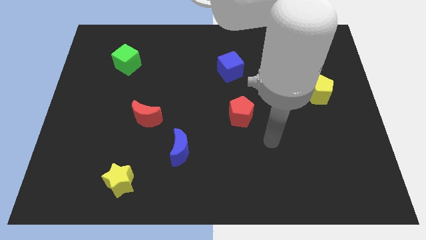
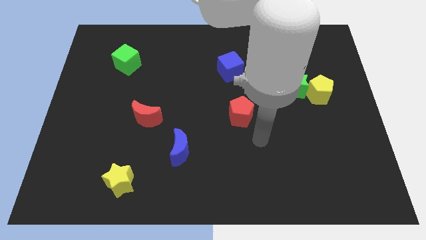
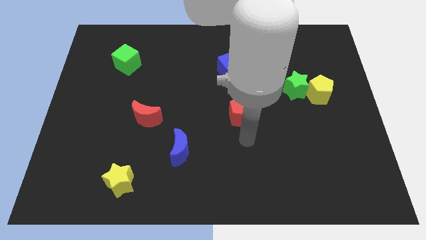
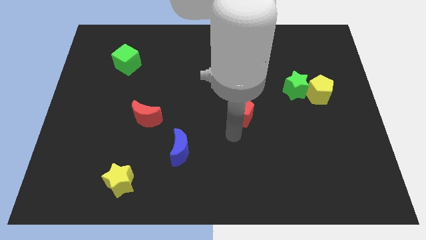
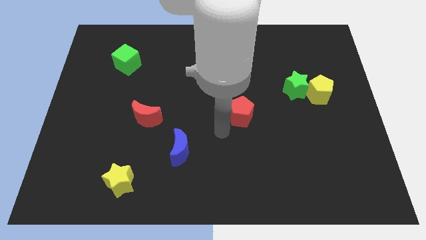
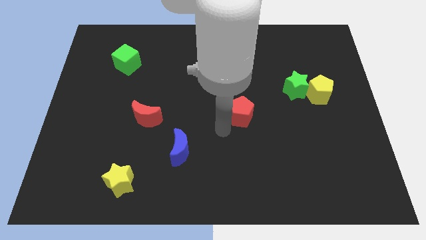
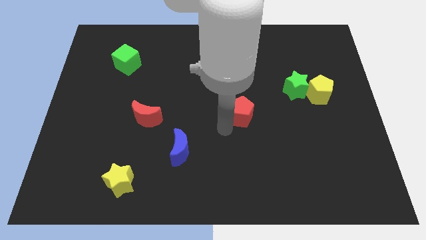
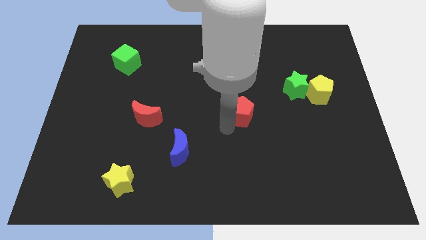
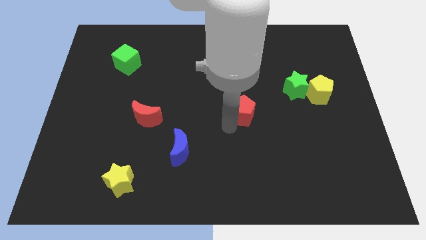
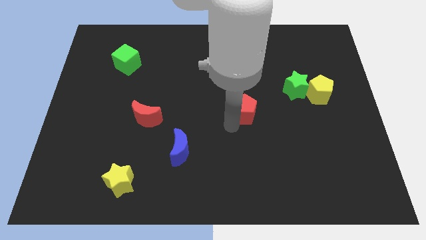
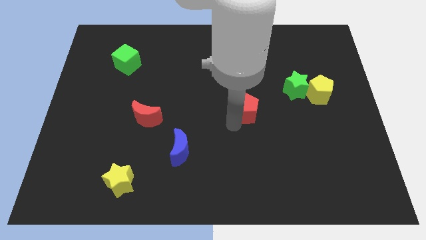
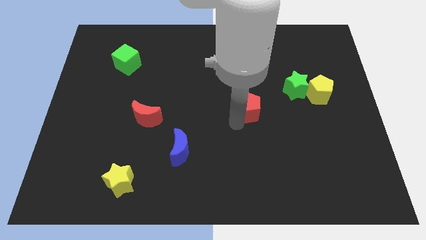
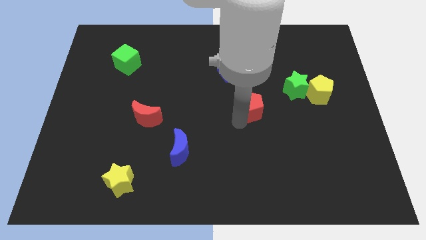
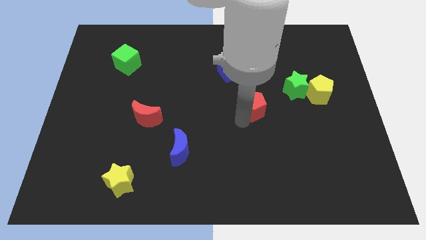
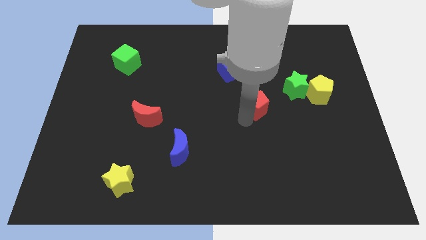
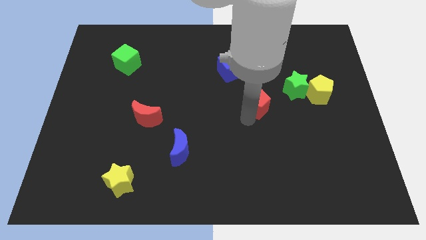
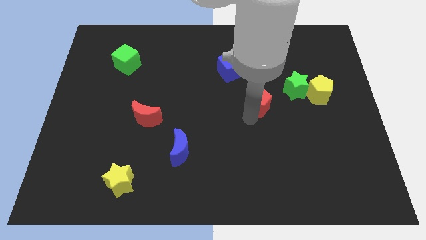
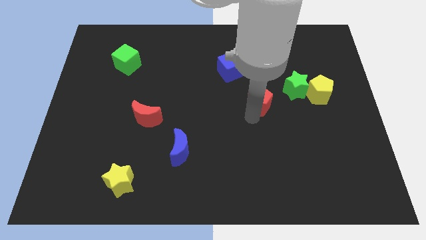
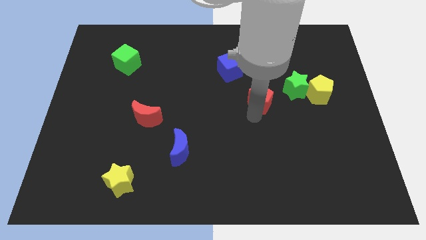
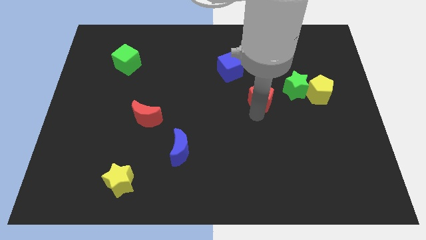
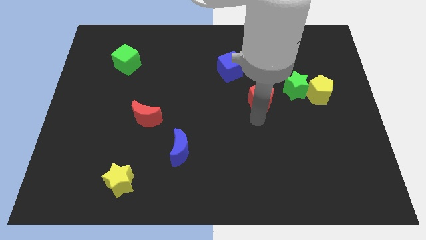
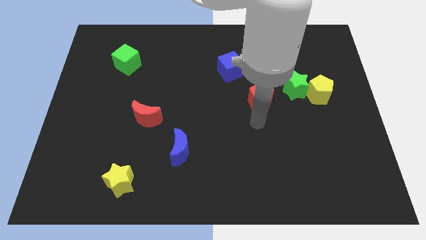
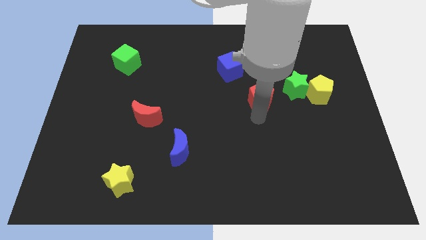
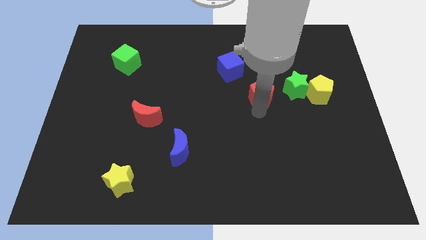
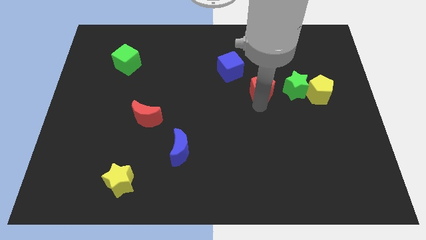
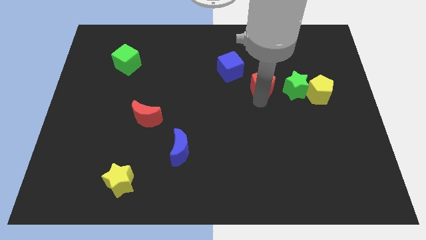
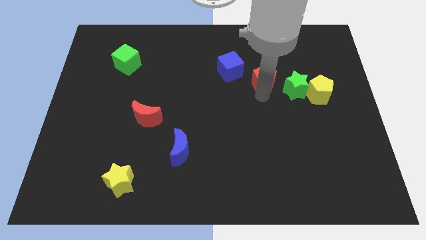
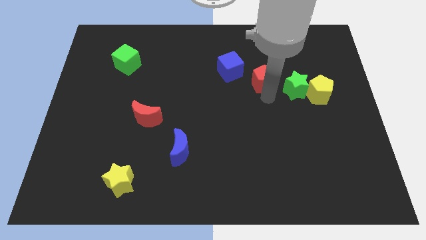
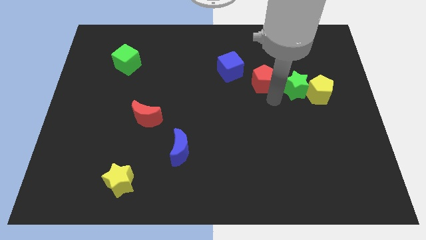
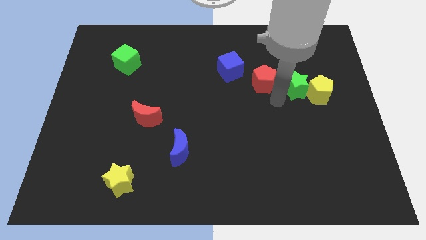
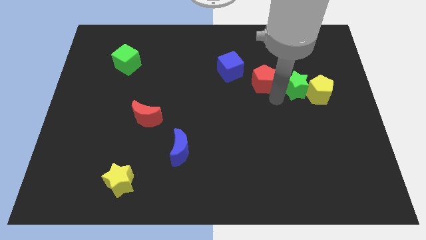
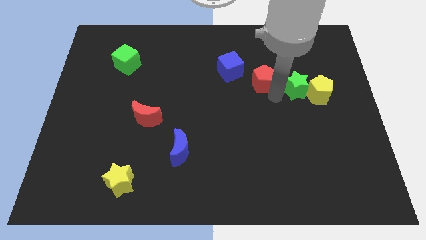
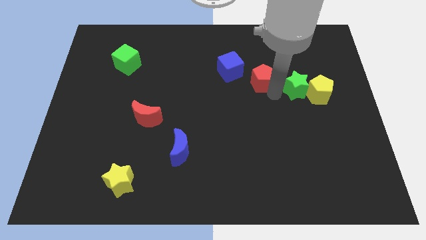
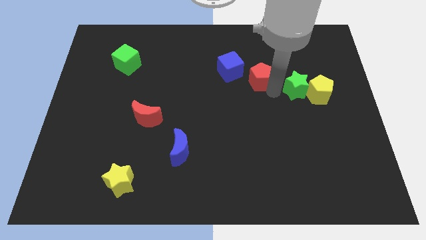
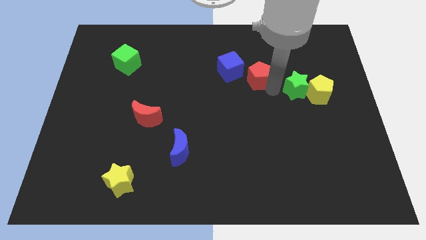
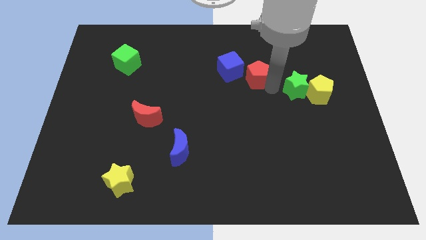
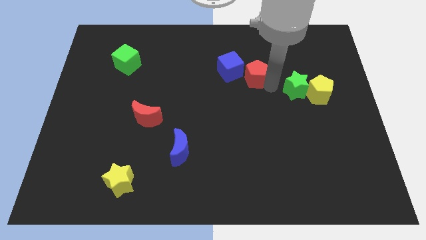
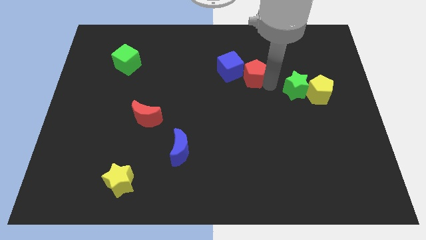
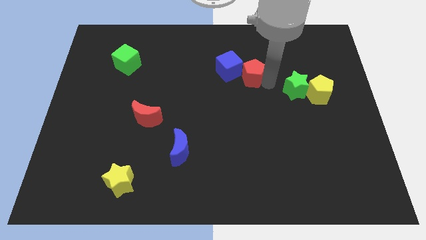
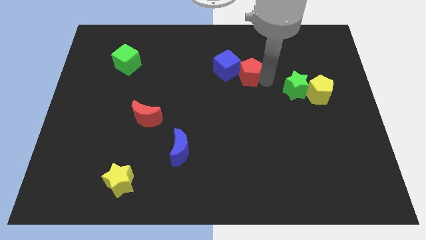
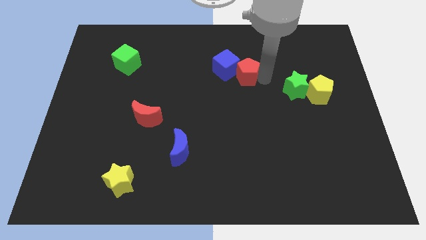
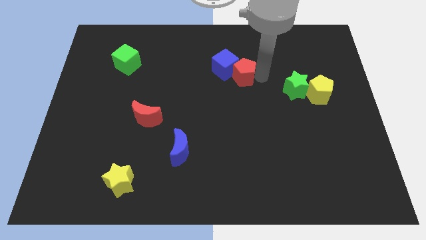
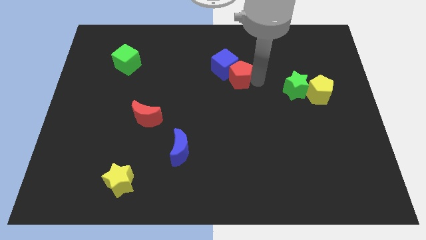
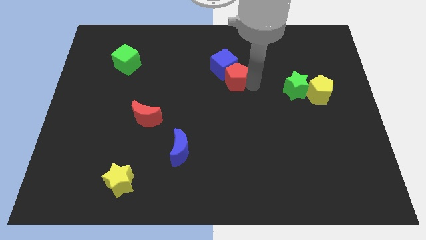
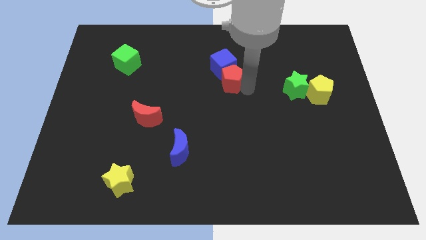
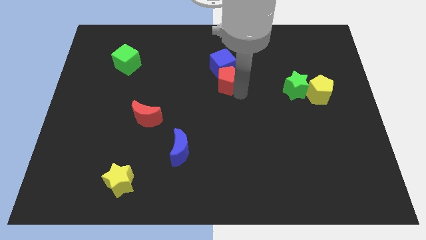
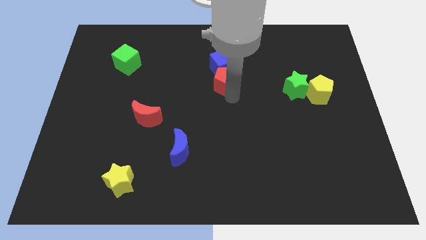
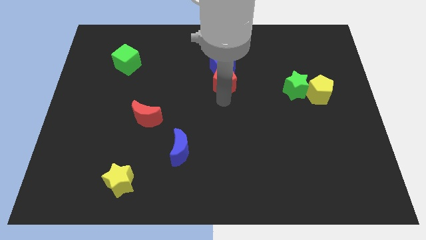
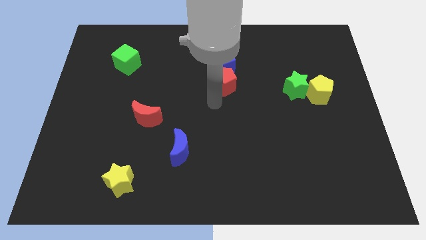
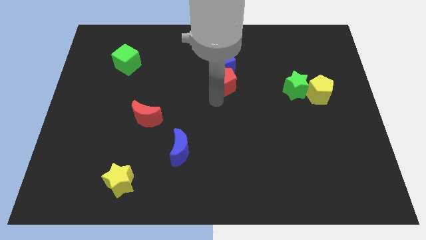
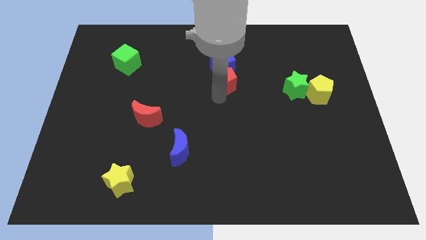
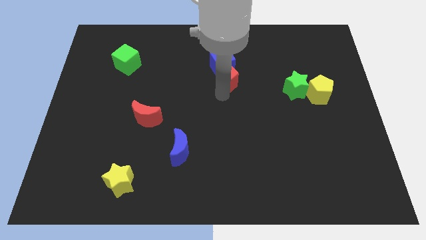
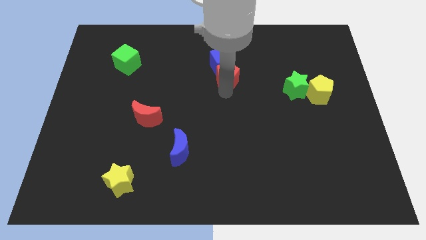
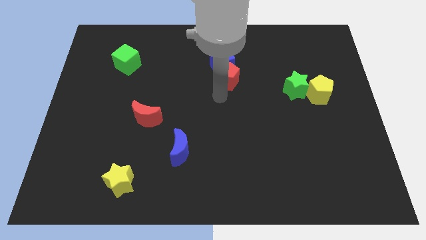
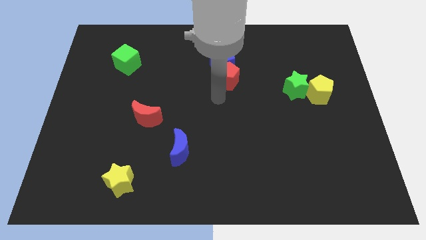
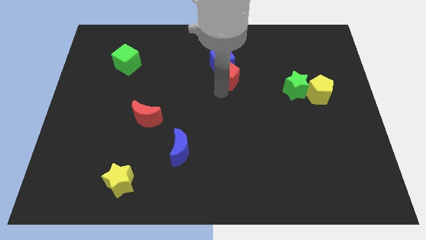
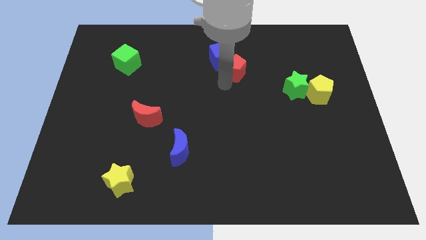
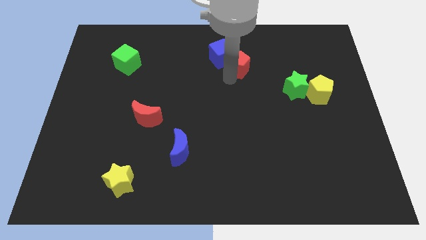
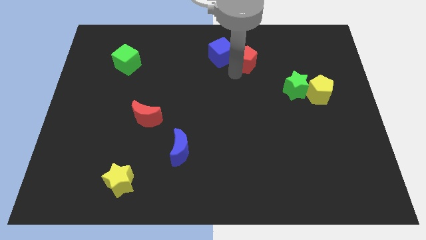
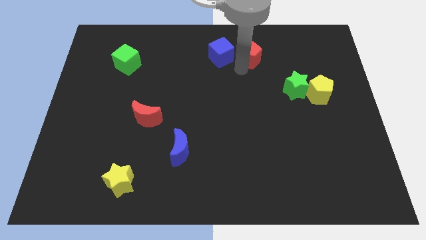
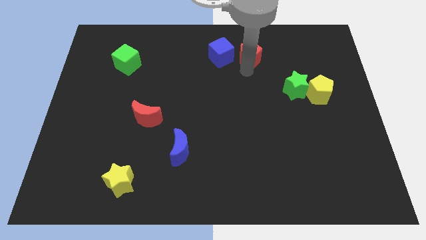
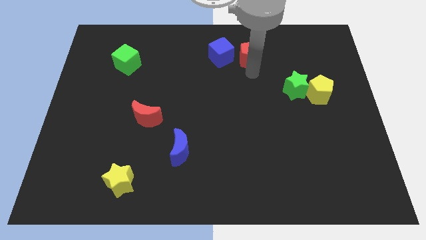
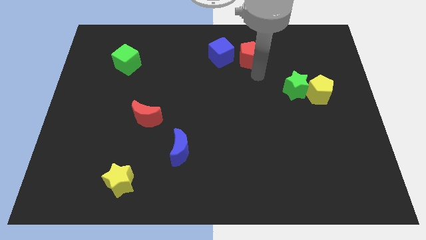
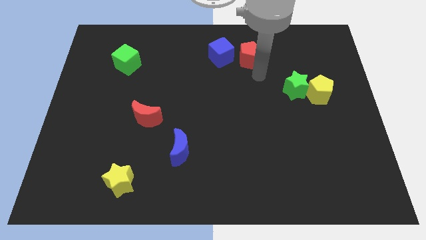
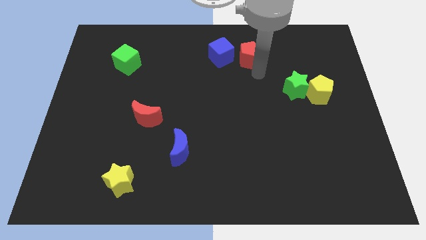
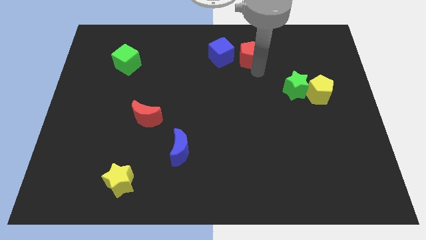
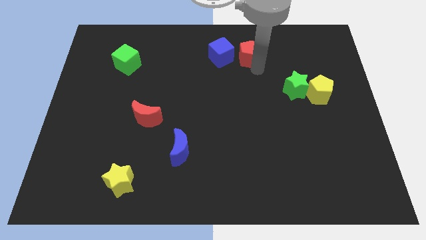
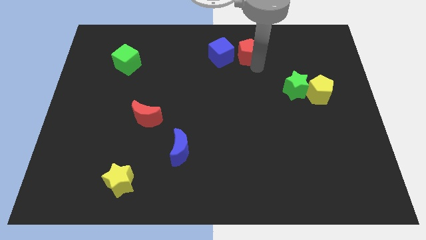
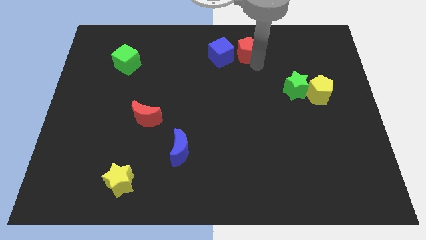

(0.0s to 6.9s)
push the red pentagon to the top right side of the blue cube
